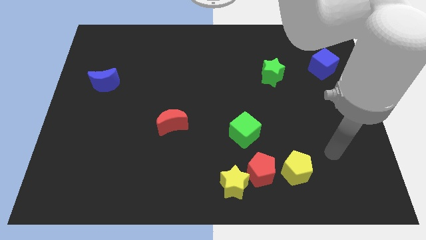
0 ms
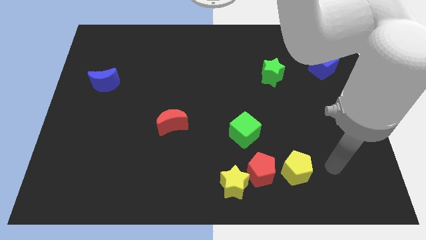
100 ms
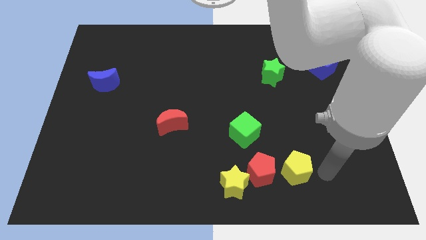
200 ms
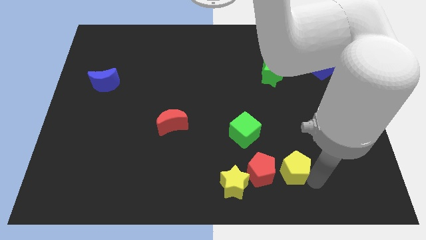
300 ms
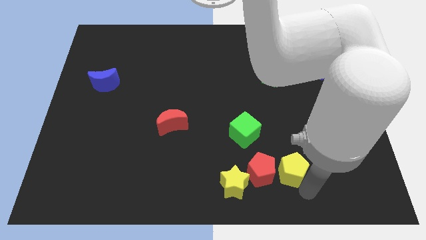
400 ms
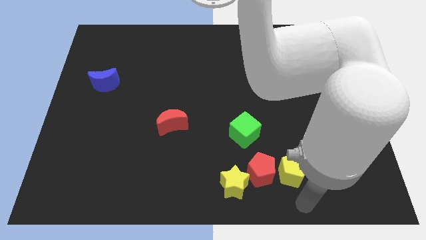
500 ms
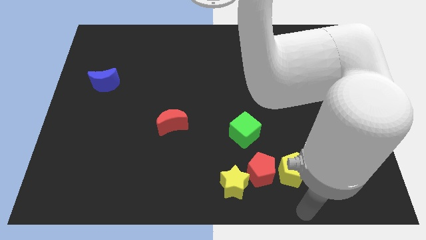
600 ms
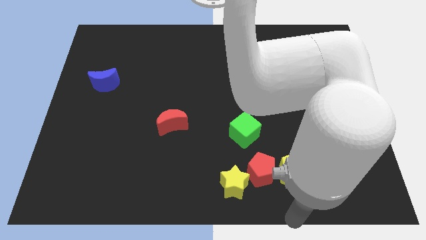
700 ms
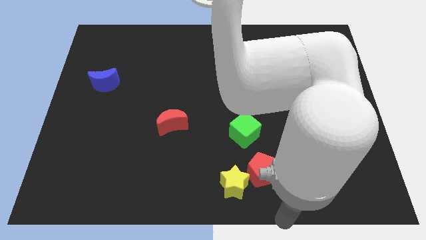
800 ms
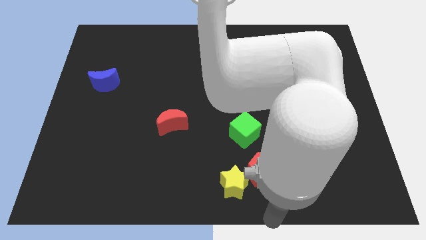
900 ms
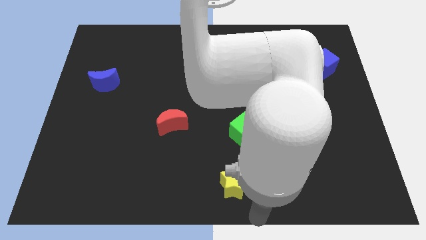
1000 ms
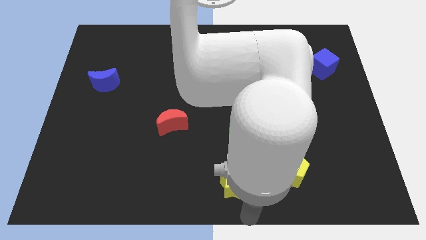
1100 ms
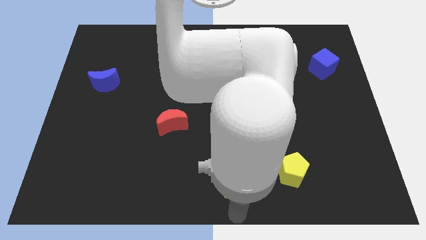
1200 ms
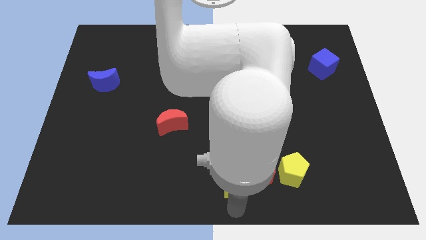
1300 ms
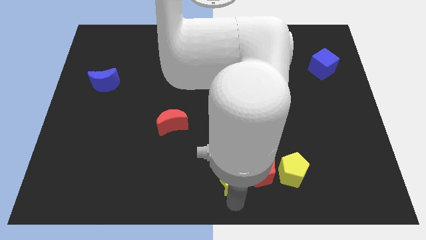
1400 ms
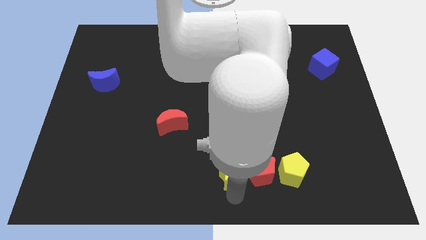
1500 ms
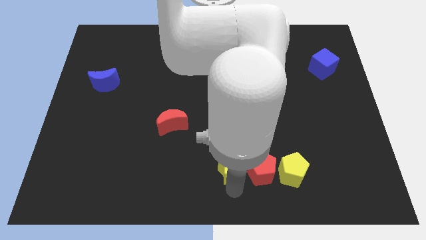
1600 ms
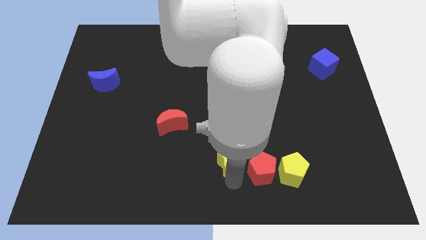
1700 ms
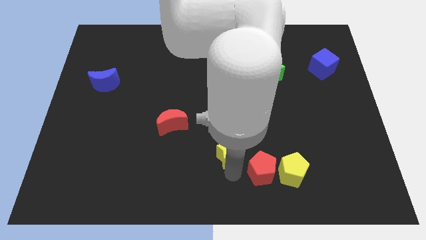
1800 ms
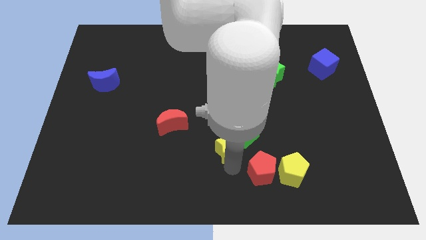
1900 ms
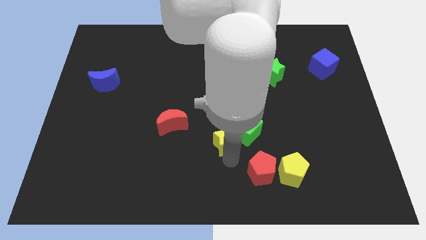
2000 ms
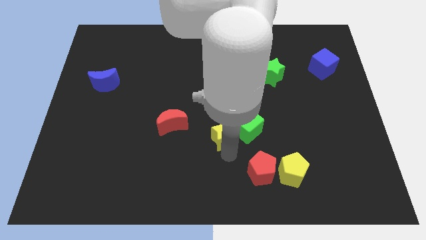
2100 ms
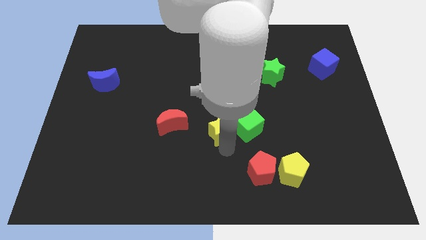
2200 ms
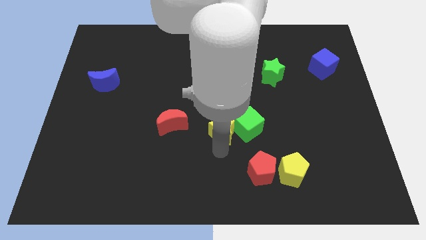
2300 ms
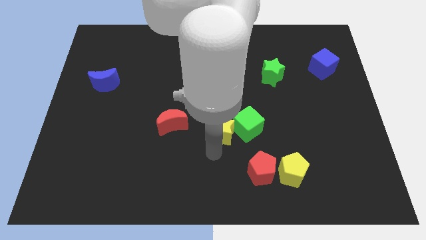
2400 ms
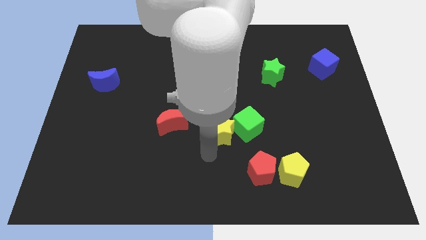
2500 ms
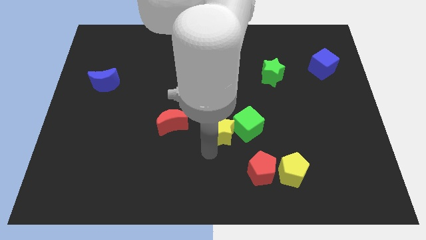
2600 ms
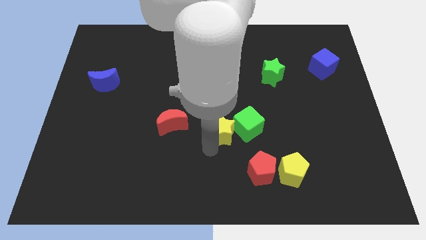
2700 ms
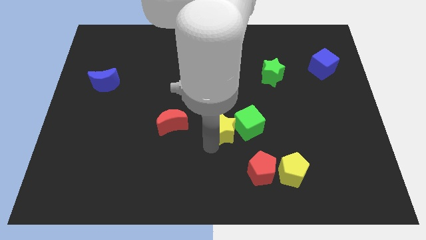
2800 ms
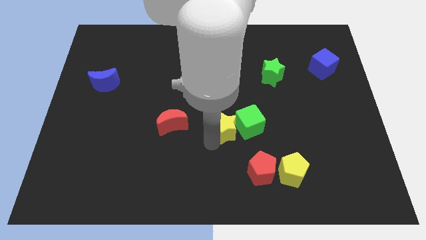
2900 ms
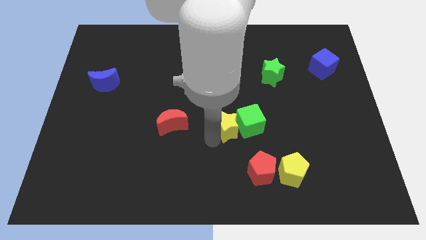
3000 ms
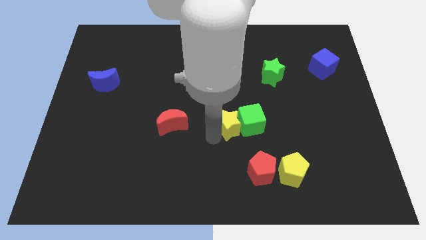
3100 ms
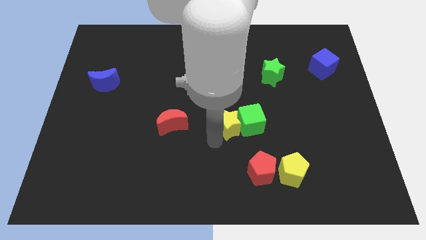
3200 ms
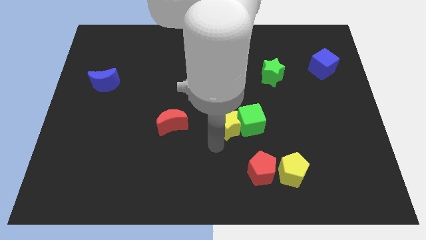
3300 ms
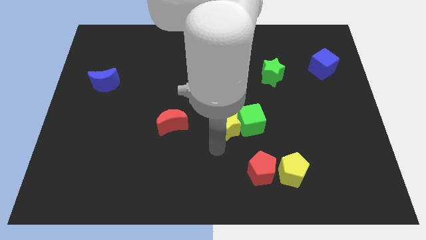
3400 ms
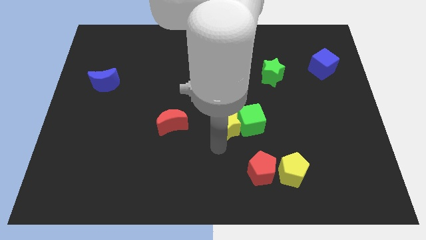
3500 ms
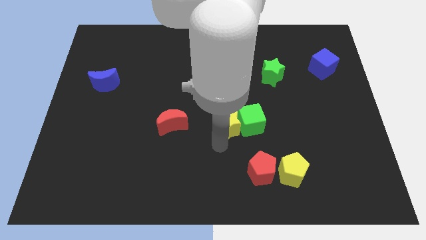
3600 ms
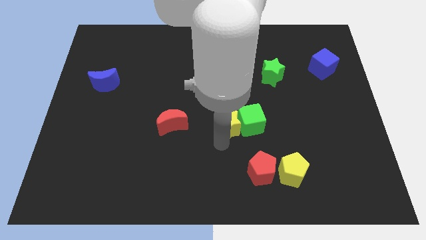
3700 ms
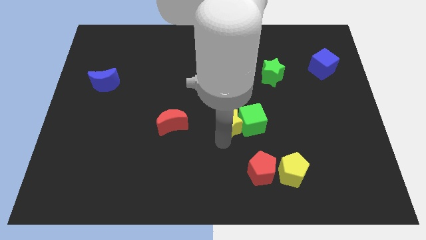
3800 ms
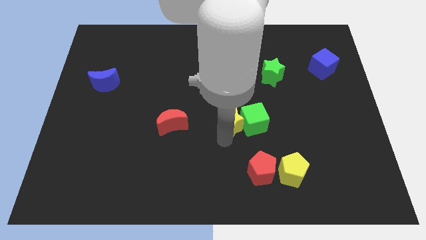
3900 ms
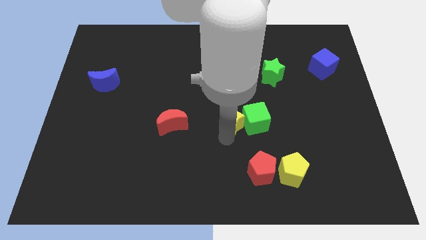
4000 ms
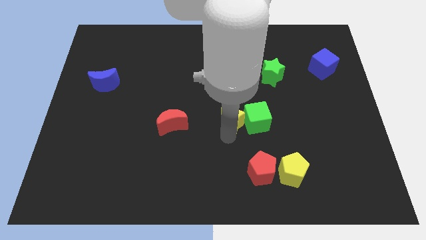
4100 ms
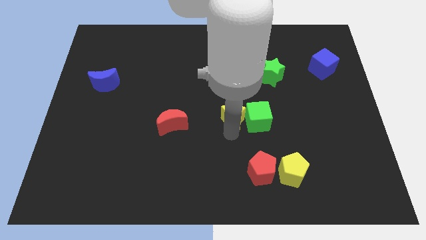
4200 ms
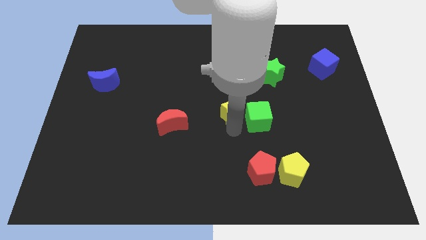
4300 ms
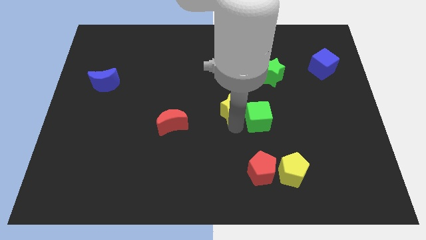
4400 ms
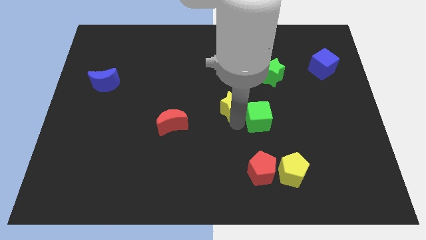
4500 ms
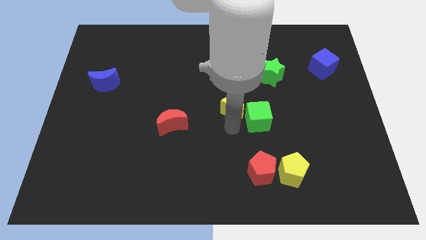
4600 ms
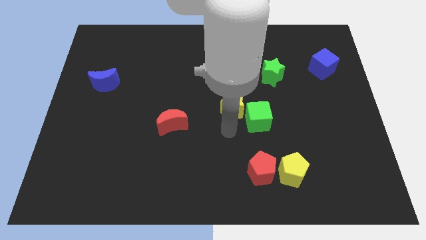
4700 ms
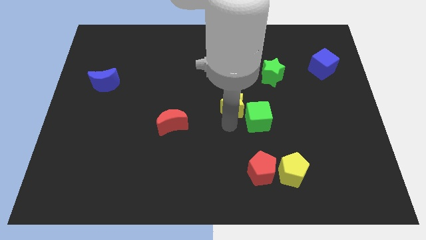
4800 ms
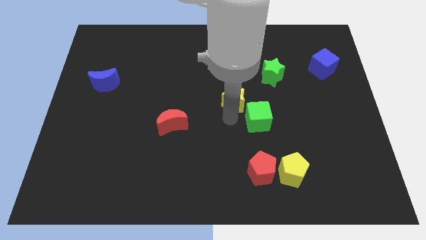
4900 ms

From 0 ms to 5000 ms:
move the yellow star up

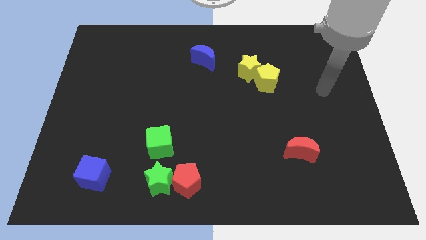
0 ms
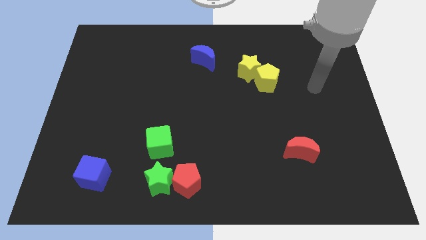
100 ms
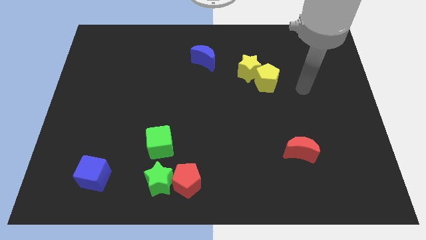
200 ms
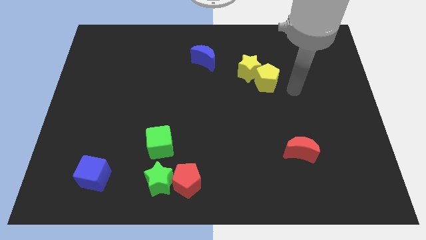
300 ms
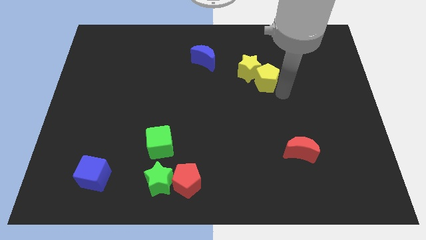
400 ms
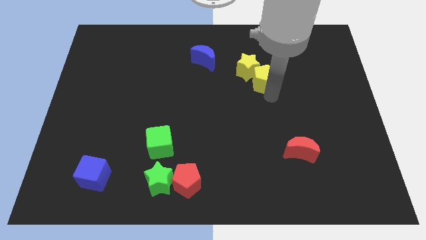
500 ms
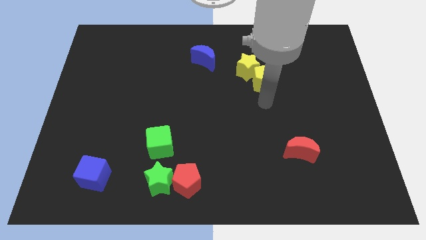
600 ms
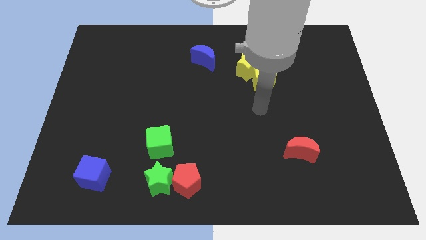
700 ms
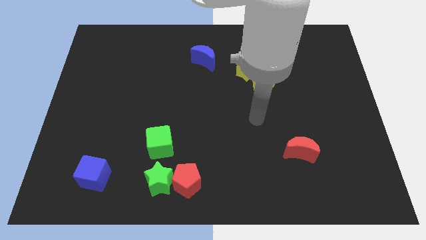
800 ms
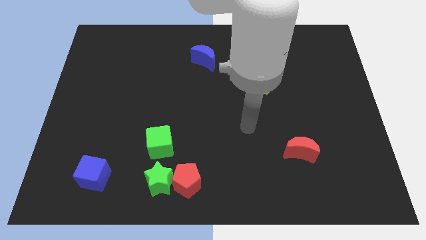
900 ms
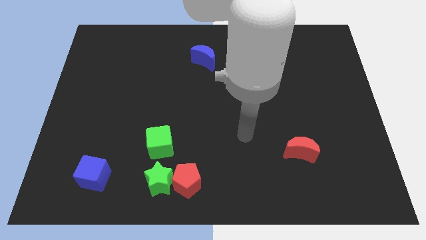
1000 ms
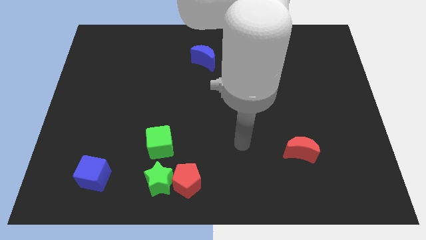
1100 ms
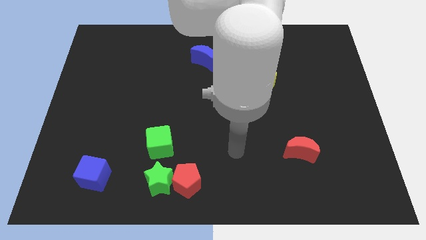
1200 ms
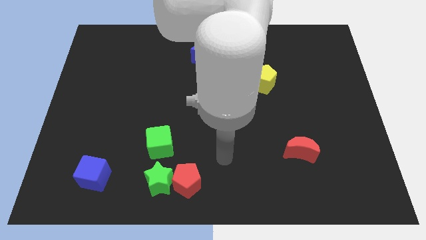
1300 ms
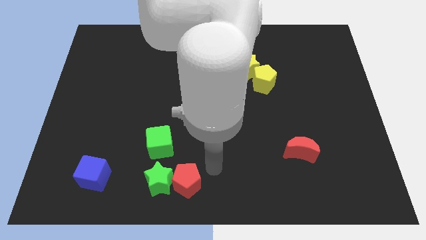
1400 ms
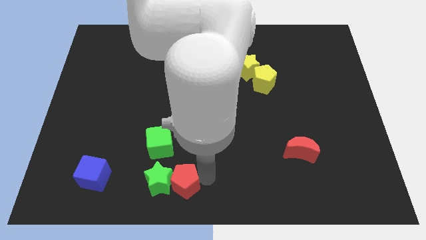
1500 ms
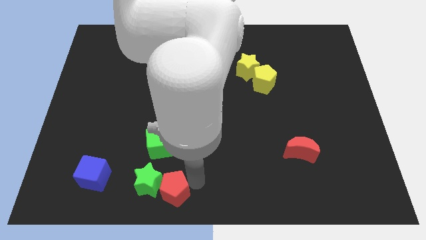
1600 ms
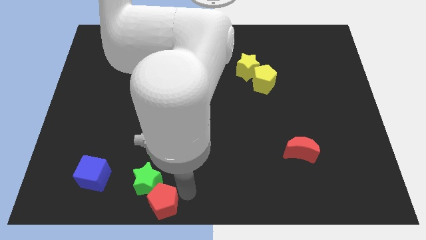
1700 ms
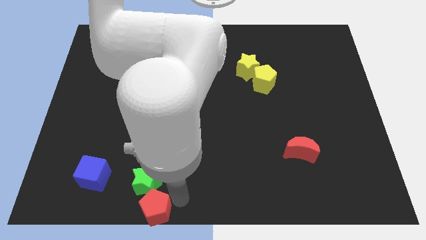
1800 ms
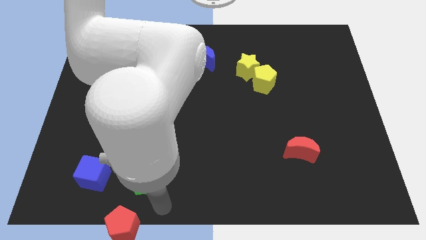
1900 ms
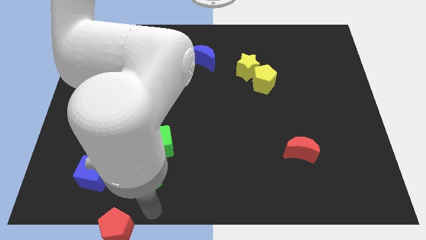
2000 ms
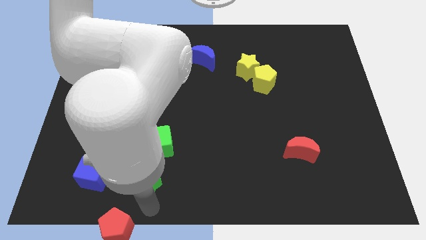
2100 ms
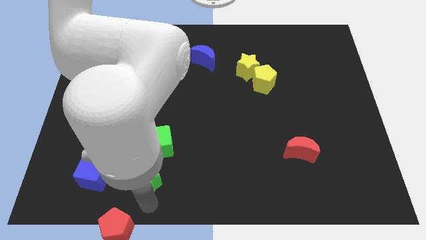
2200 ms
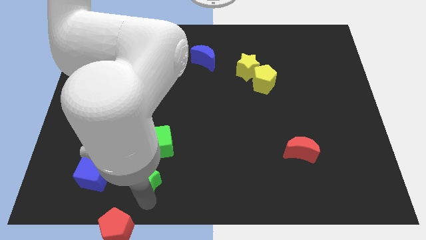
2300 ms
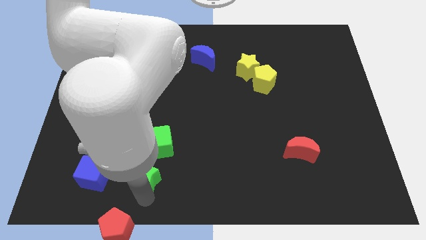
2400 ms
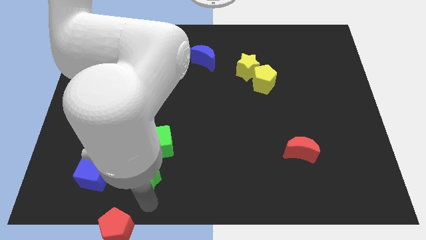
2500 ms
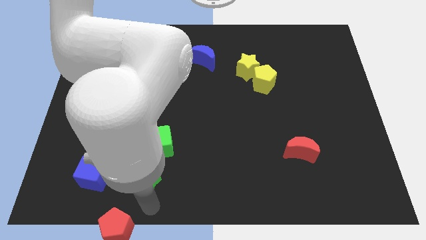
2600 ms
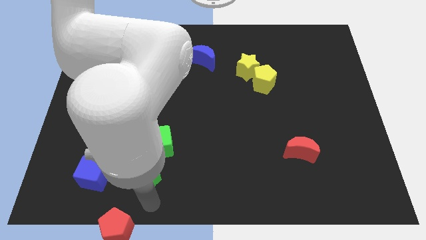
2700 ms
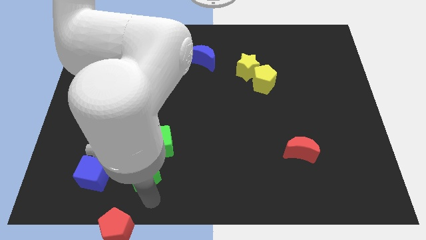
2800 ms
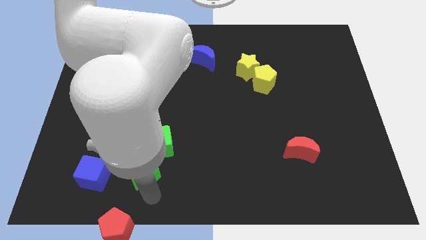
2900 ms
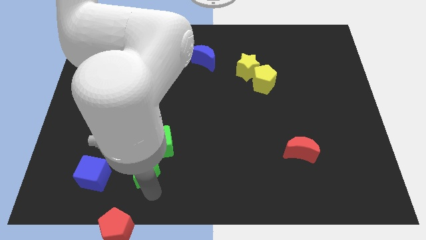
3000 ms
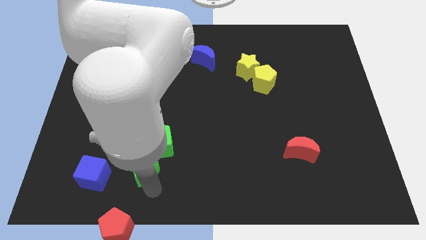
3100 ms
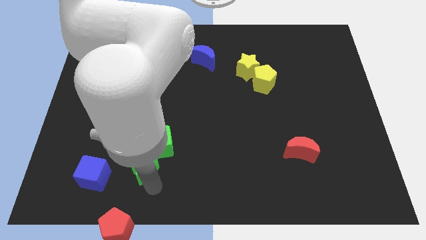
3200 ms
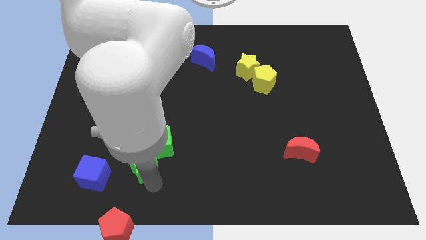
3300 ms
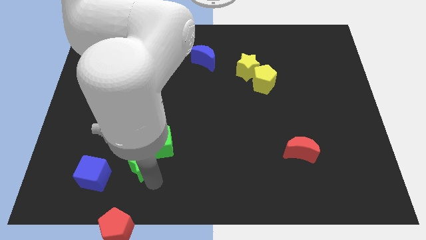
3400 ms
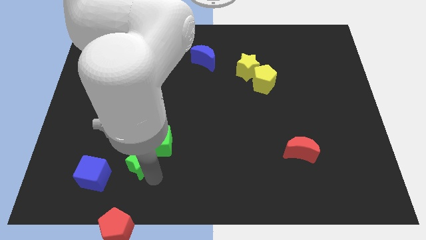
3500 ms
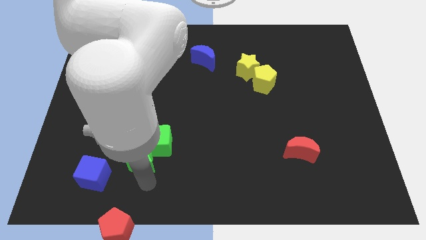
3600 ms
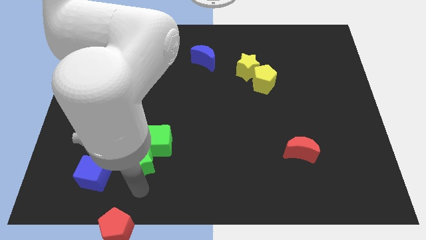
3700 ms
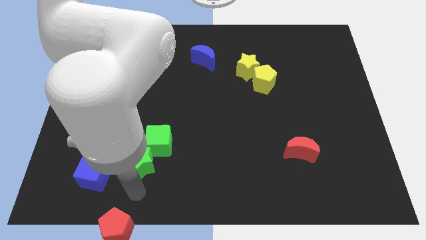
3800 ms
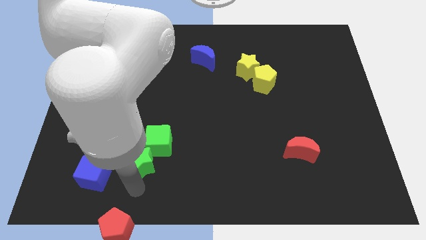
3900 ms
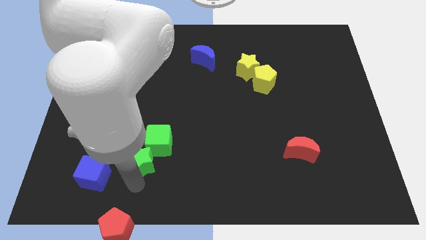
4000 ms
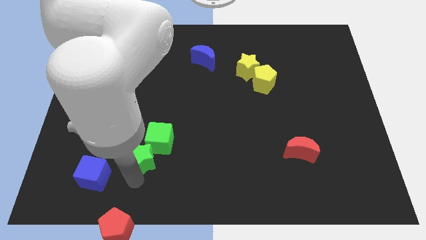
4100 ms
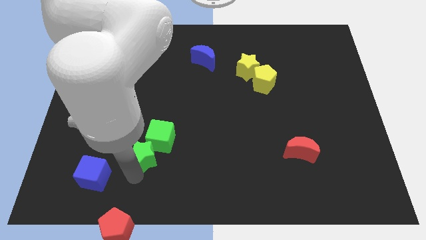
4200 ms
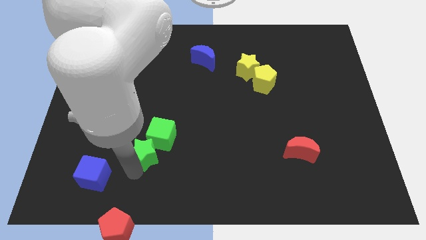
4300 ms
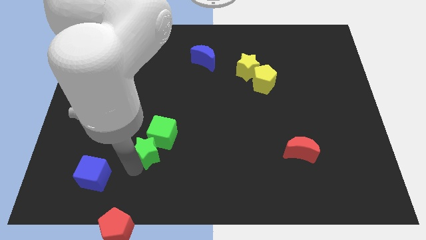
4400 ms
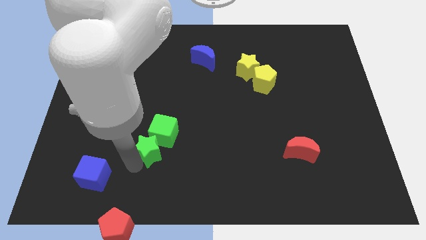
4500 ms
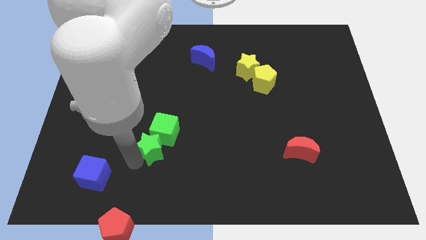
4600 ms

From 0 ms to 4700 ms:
push the green star a little up
